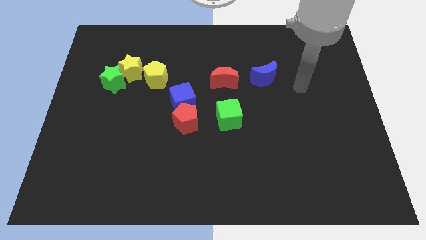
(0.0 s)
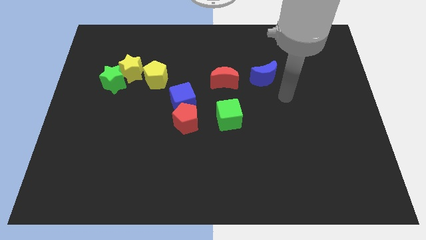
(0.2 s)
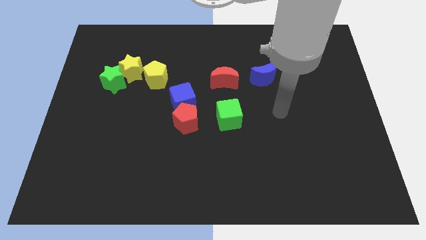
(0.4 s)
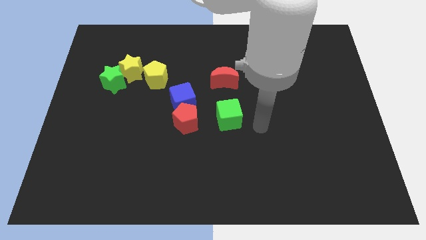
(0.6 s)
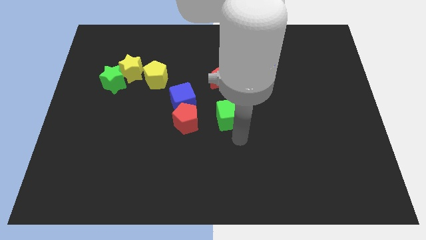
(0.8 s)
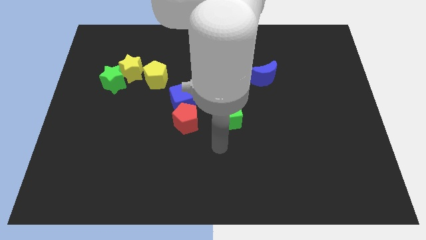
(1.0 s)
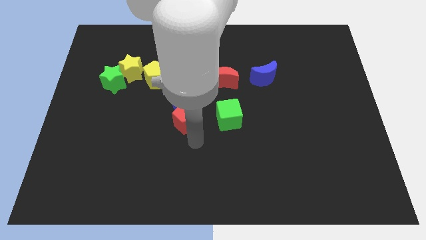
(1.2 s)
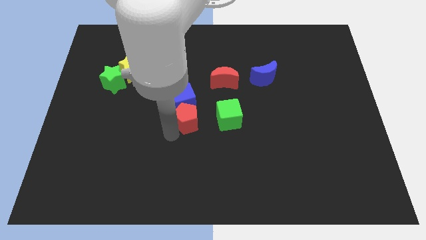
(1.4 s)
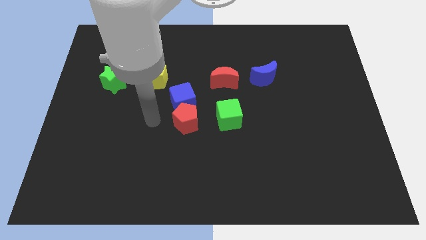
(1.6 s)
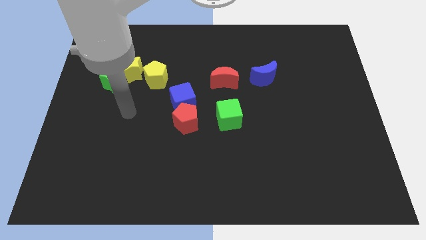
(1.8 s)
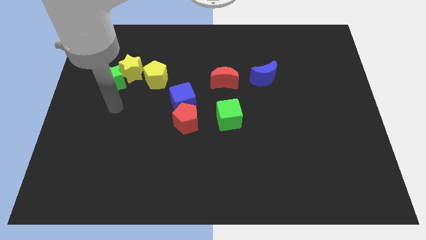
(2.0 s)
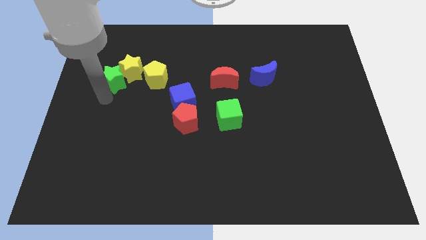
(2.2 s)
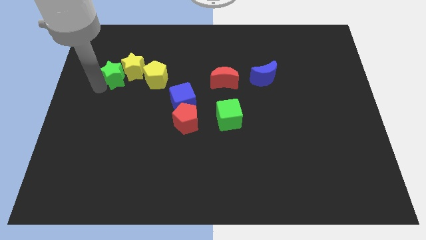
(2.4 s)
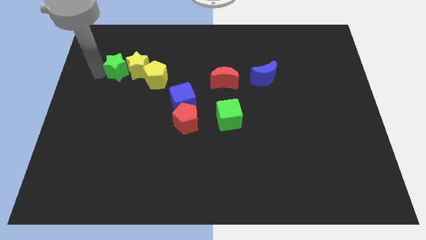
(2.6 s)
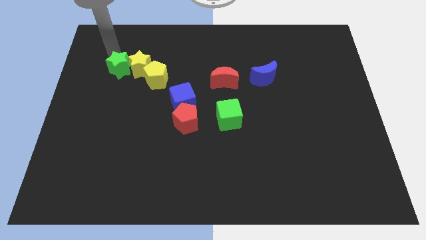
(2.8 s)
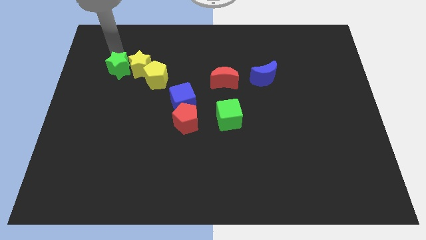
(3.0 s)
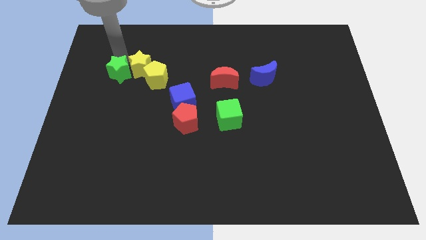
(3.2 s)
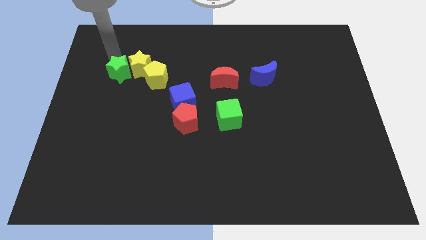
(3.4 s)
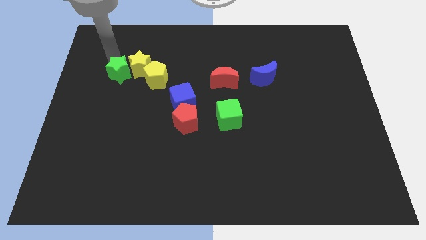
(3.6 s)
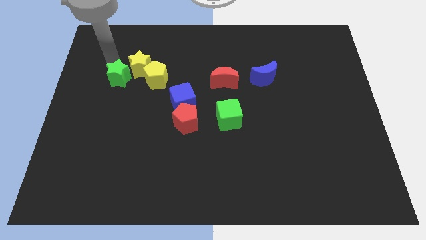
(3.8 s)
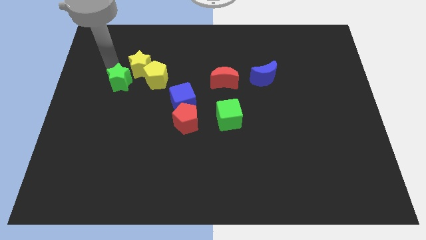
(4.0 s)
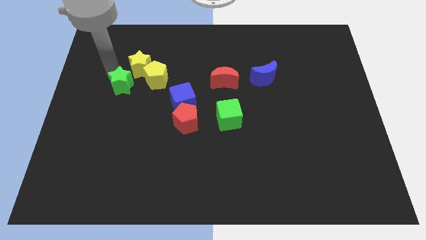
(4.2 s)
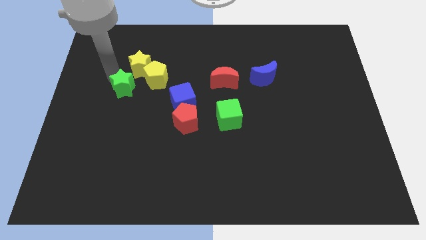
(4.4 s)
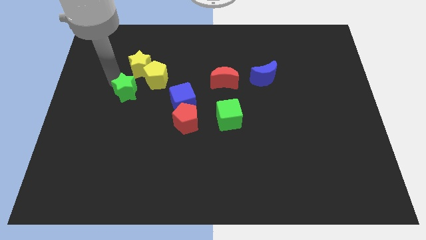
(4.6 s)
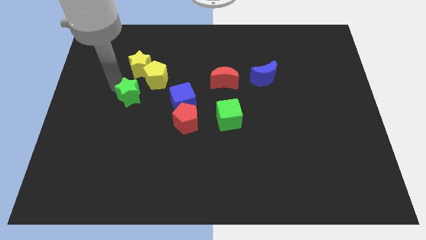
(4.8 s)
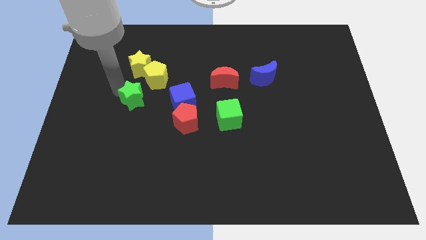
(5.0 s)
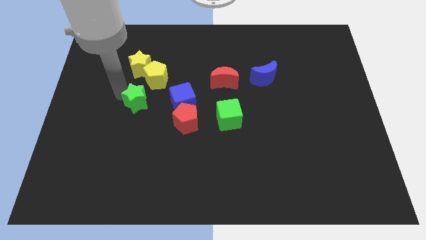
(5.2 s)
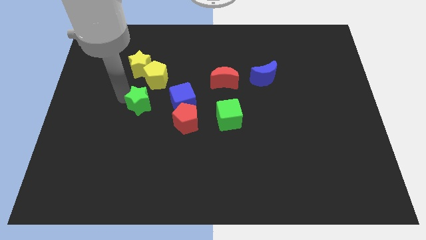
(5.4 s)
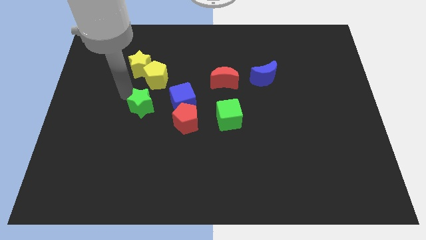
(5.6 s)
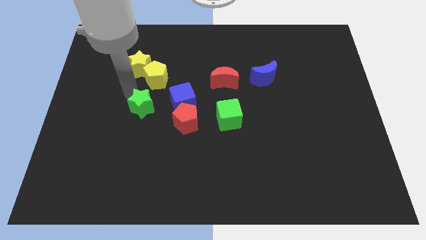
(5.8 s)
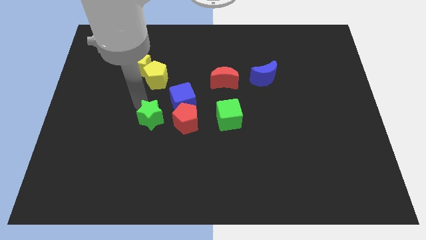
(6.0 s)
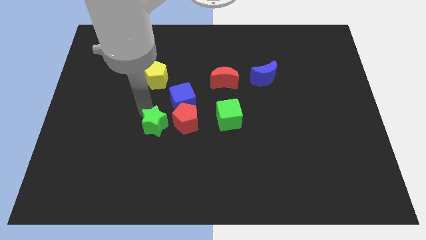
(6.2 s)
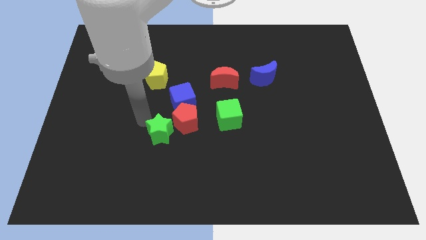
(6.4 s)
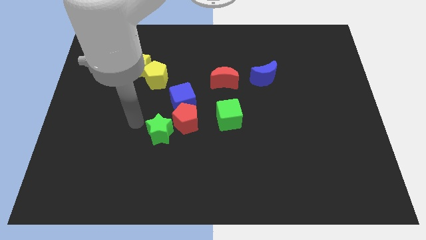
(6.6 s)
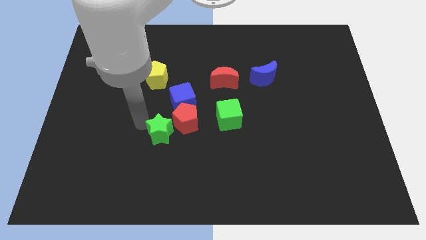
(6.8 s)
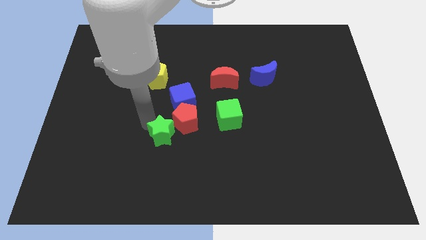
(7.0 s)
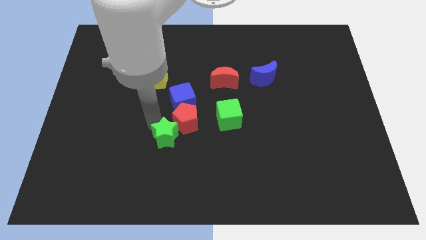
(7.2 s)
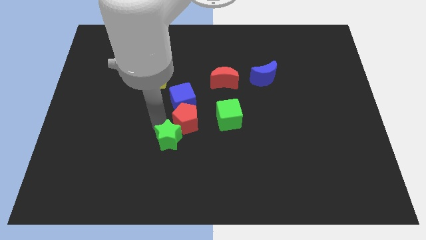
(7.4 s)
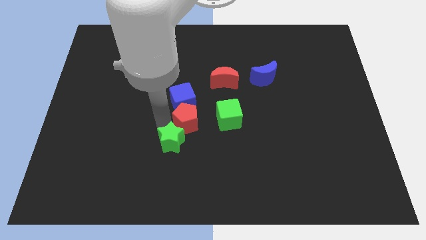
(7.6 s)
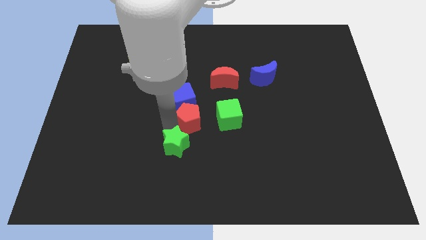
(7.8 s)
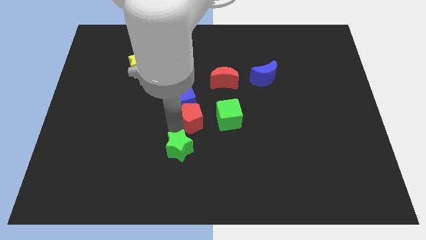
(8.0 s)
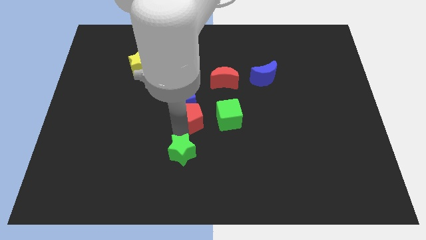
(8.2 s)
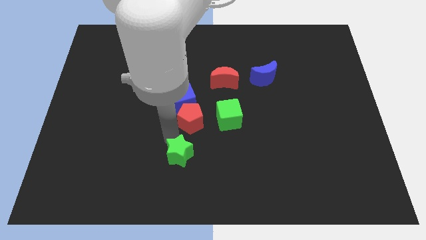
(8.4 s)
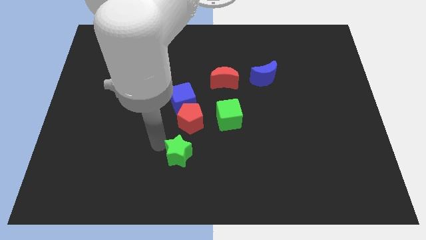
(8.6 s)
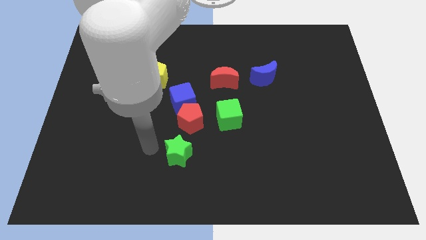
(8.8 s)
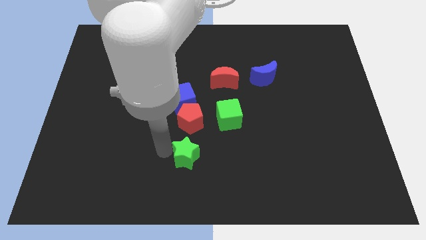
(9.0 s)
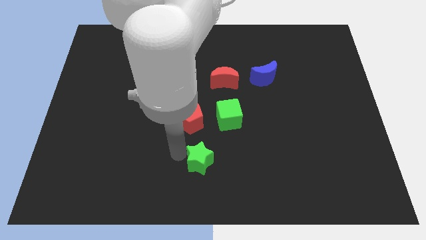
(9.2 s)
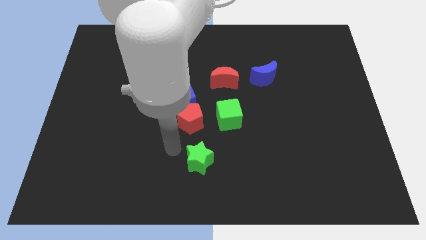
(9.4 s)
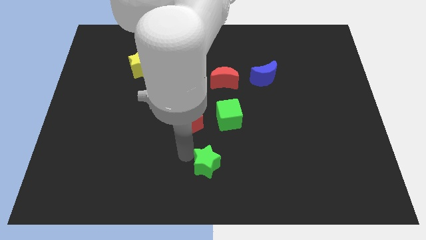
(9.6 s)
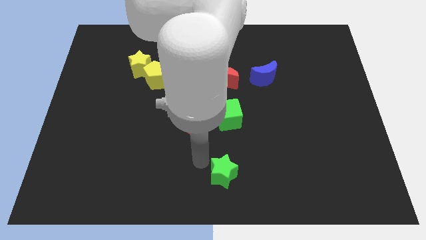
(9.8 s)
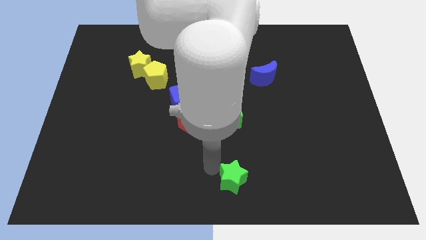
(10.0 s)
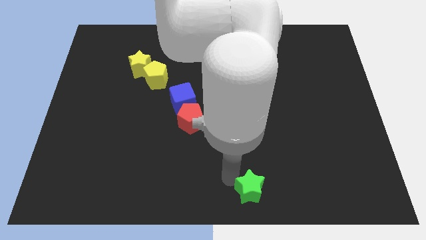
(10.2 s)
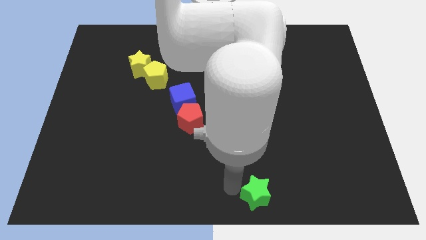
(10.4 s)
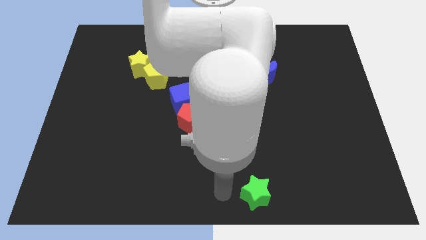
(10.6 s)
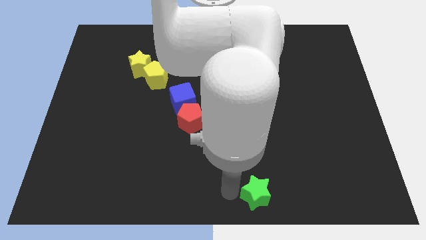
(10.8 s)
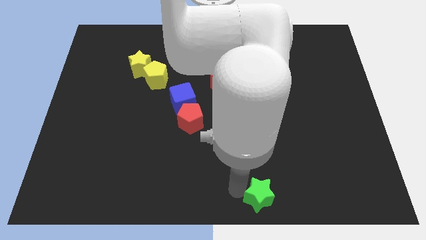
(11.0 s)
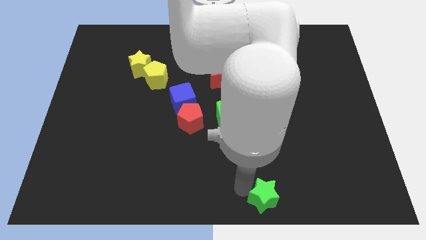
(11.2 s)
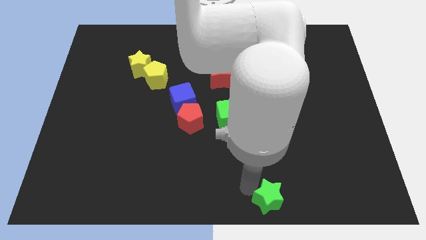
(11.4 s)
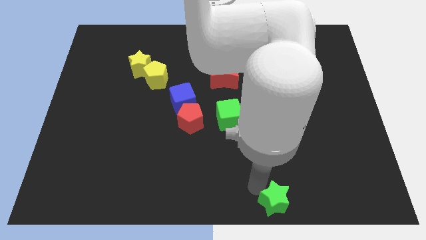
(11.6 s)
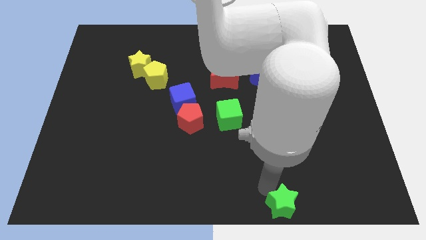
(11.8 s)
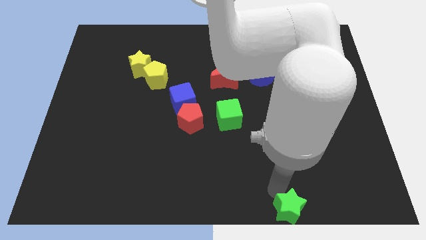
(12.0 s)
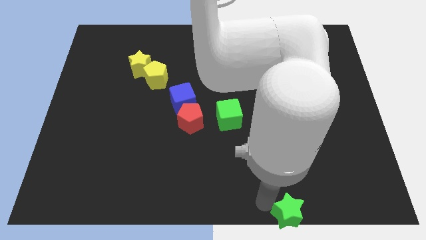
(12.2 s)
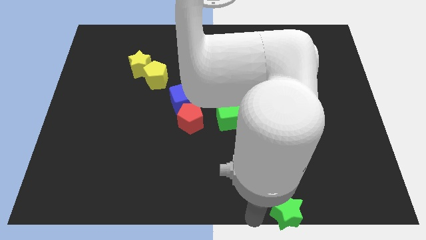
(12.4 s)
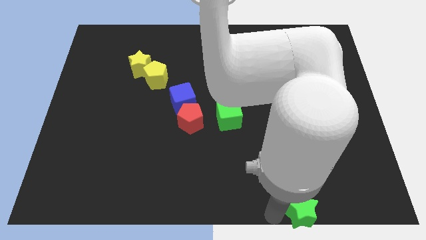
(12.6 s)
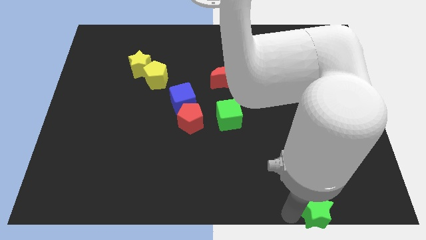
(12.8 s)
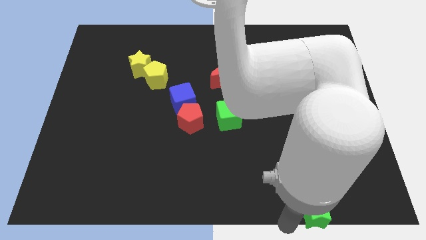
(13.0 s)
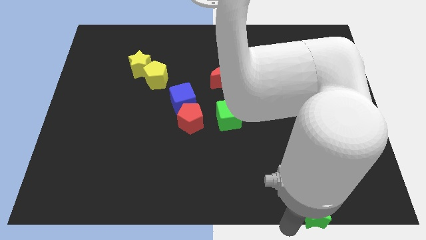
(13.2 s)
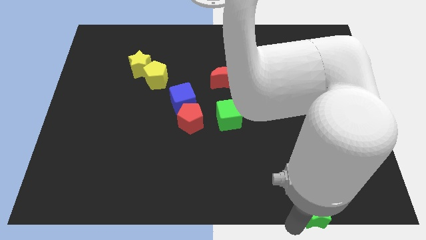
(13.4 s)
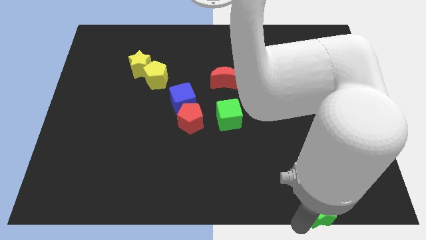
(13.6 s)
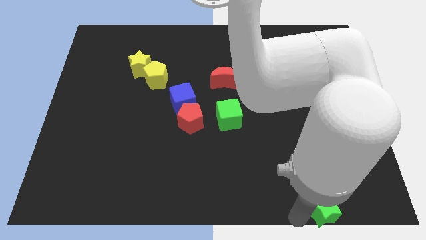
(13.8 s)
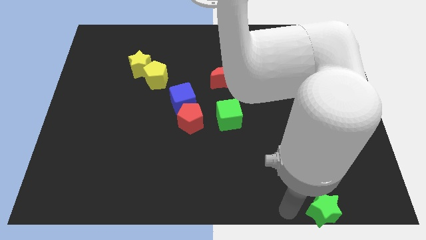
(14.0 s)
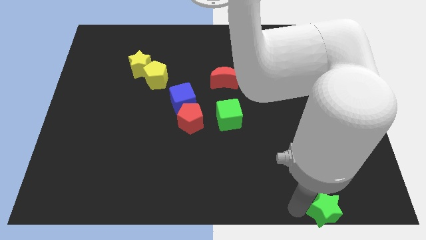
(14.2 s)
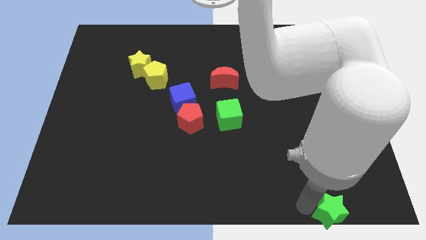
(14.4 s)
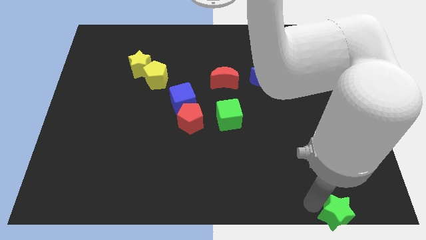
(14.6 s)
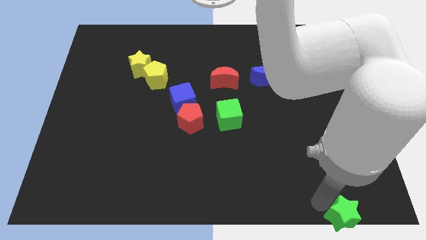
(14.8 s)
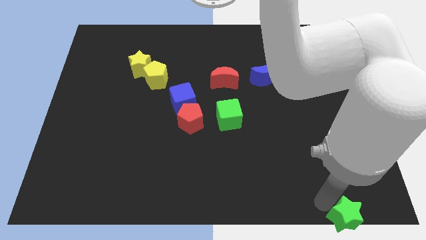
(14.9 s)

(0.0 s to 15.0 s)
put the green star to the bottom right

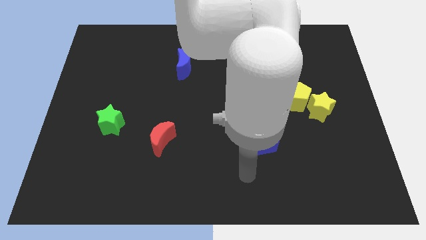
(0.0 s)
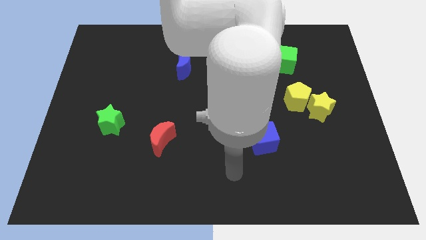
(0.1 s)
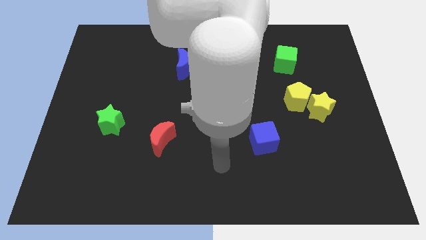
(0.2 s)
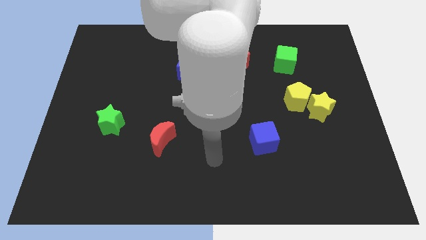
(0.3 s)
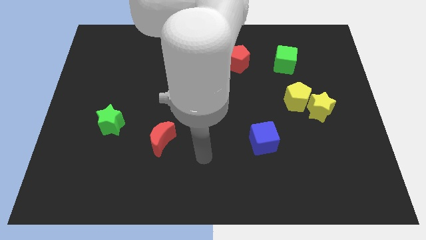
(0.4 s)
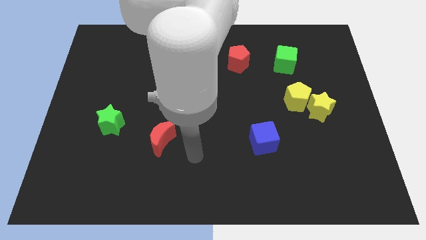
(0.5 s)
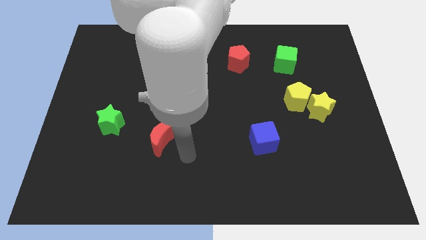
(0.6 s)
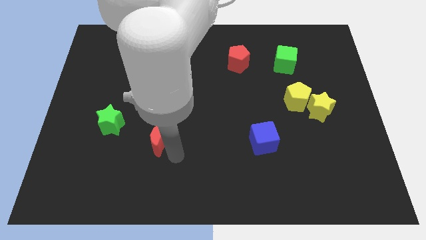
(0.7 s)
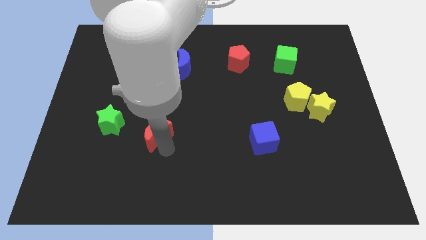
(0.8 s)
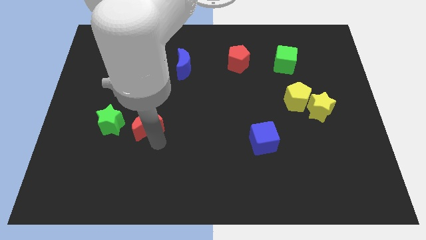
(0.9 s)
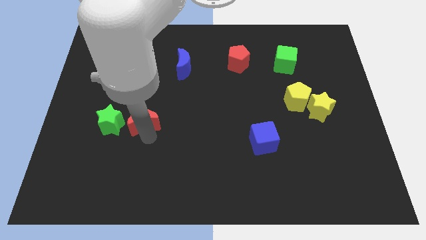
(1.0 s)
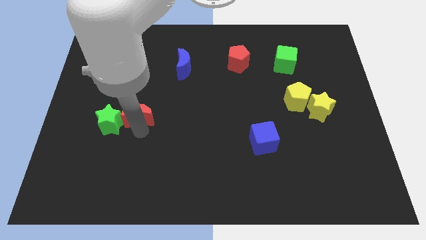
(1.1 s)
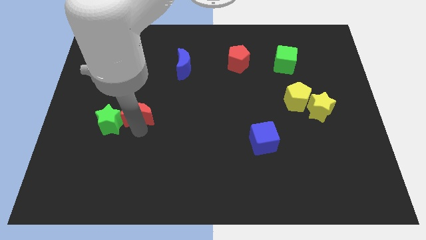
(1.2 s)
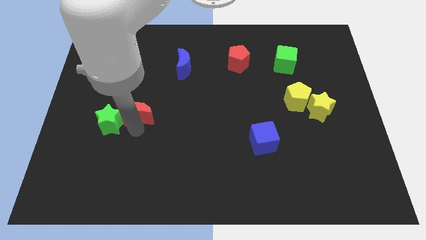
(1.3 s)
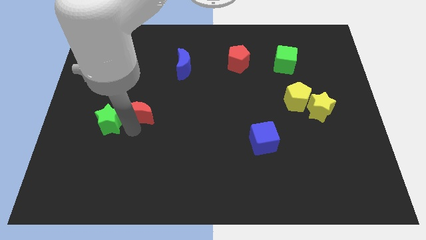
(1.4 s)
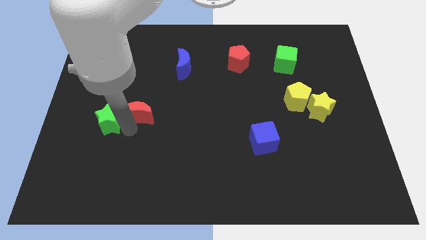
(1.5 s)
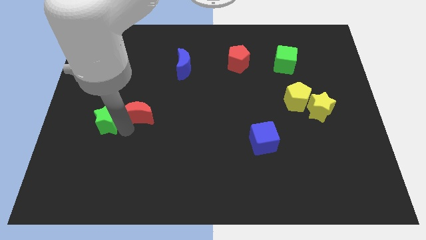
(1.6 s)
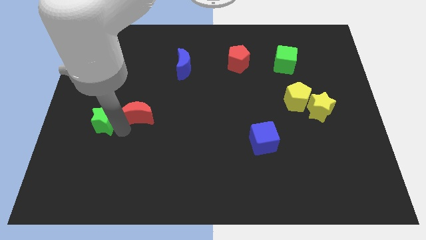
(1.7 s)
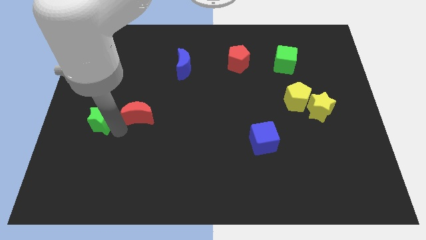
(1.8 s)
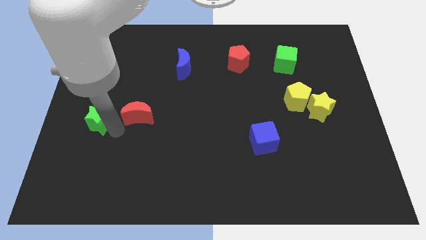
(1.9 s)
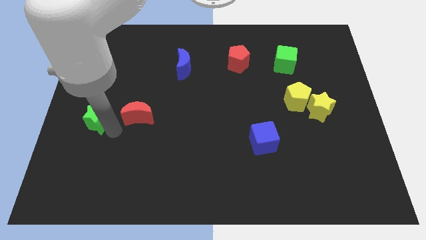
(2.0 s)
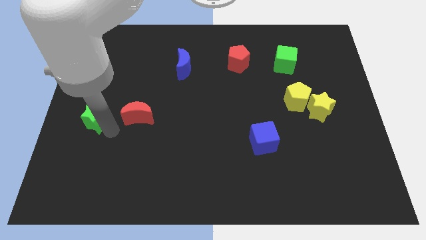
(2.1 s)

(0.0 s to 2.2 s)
push the green star to the center left
